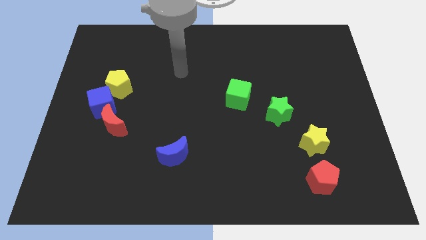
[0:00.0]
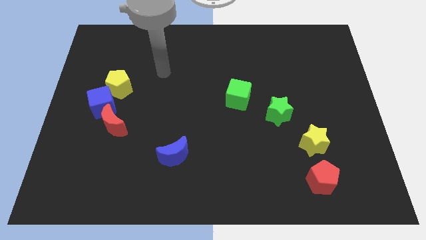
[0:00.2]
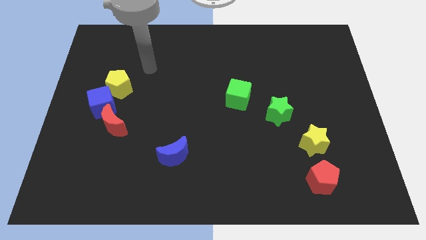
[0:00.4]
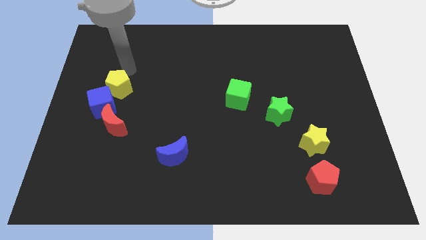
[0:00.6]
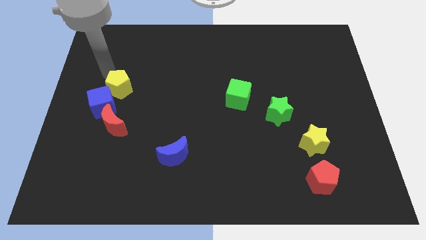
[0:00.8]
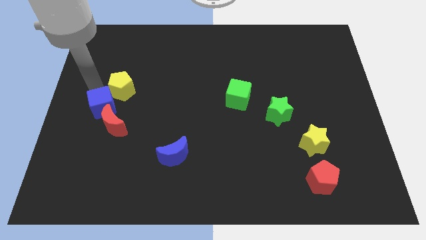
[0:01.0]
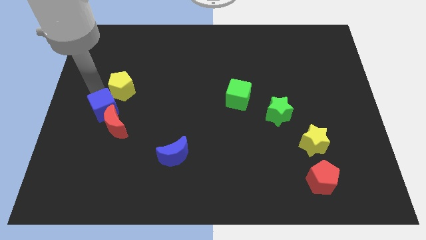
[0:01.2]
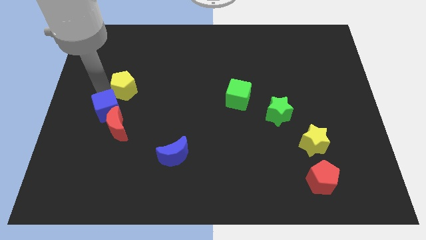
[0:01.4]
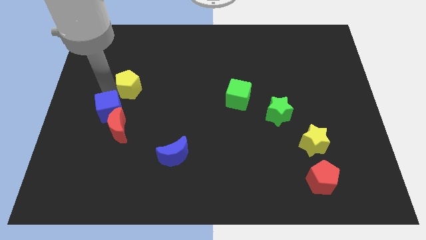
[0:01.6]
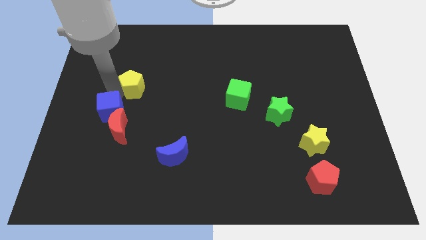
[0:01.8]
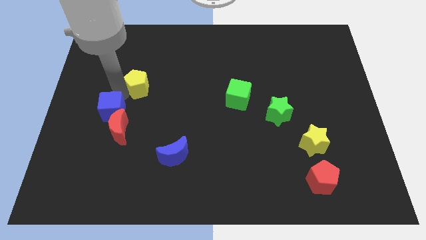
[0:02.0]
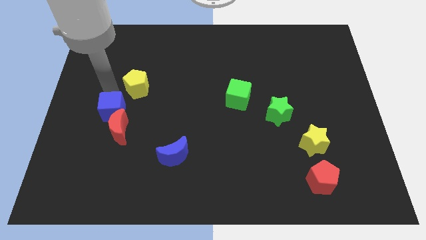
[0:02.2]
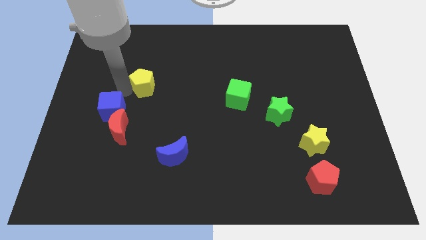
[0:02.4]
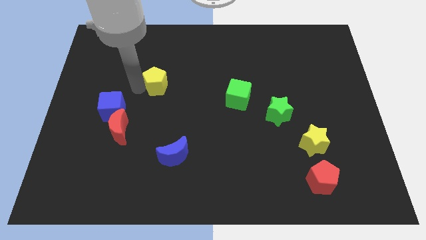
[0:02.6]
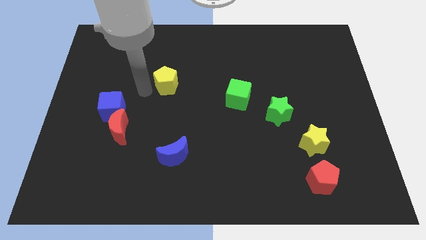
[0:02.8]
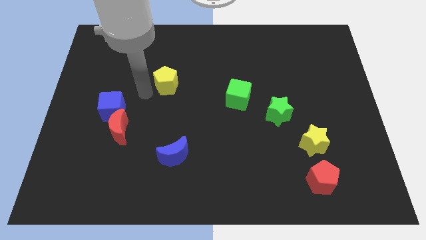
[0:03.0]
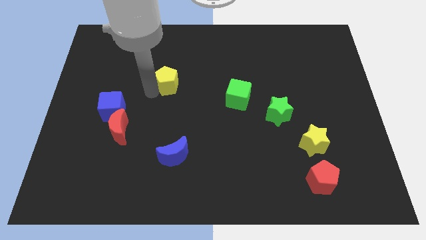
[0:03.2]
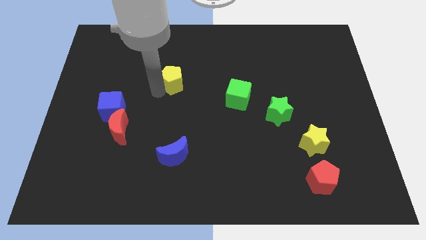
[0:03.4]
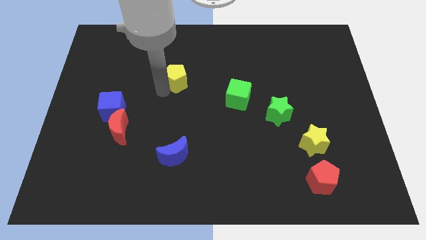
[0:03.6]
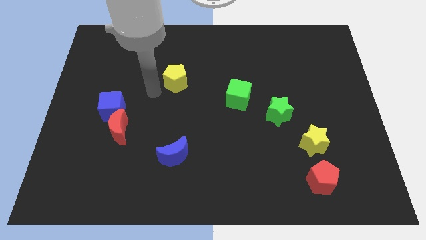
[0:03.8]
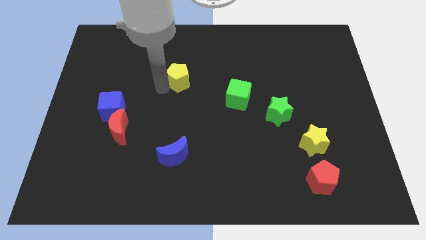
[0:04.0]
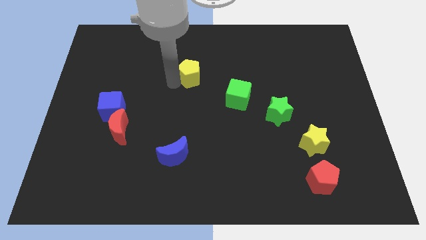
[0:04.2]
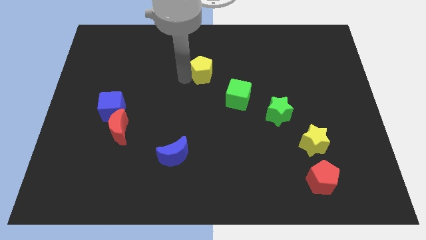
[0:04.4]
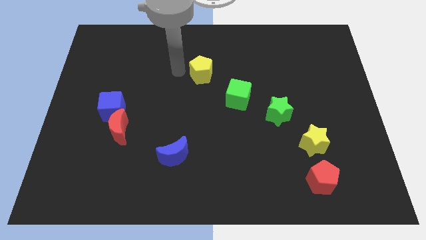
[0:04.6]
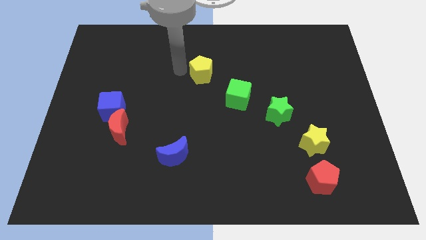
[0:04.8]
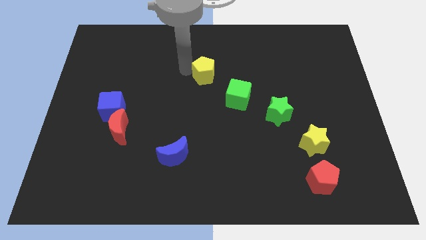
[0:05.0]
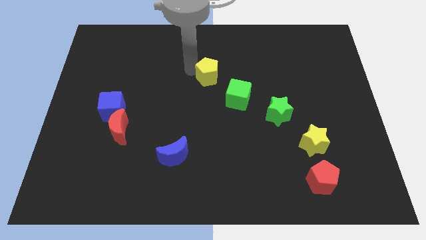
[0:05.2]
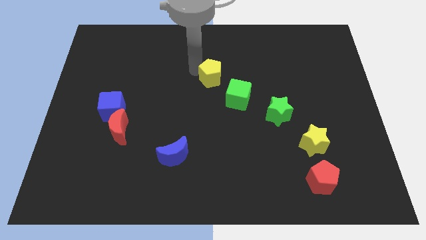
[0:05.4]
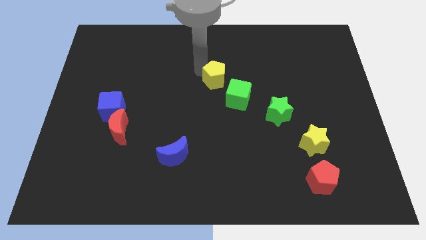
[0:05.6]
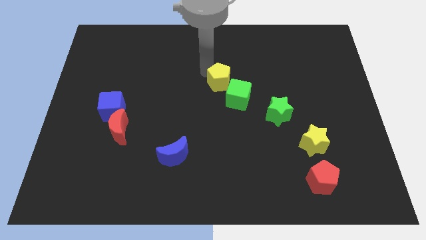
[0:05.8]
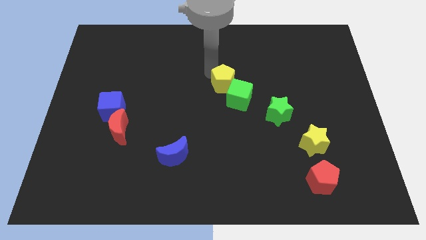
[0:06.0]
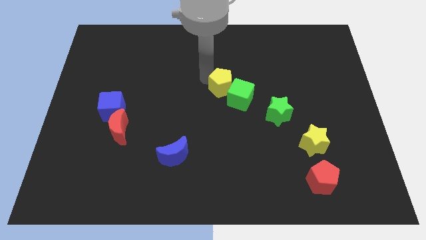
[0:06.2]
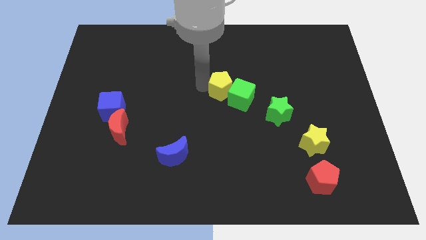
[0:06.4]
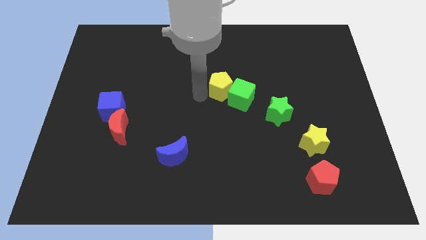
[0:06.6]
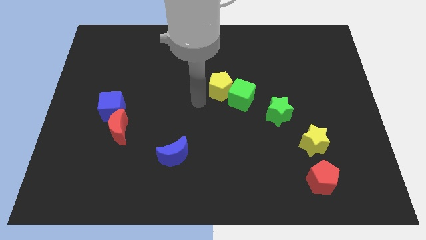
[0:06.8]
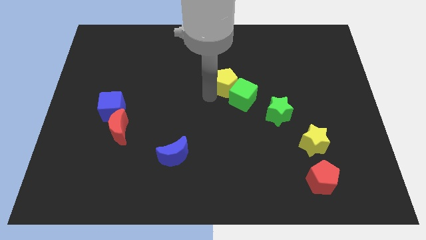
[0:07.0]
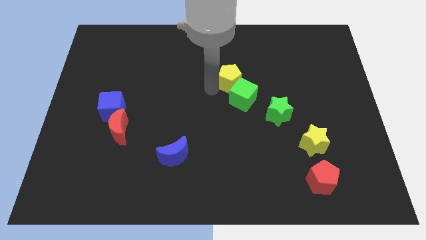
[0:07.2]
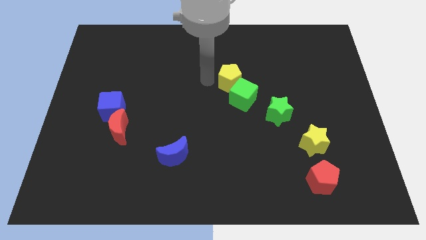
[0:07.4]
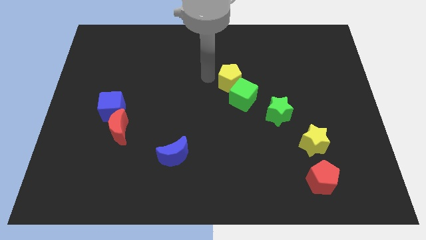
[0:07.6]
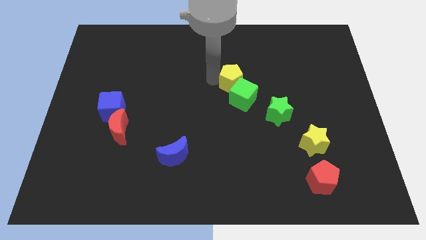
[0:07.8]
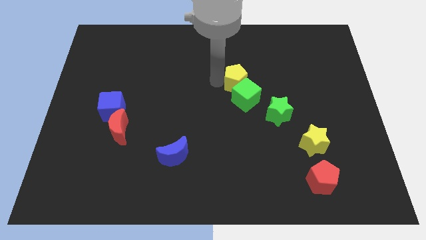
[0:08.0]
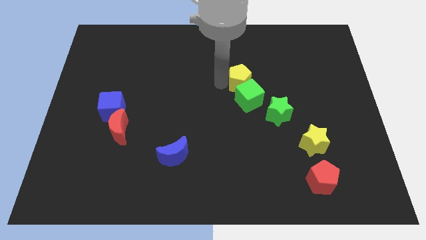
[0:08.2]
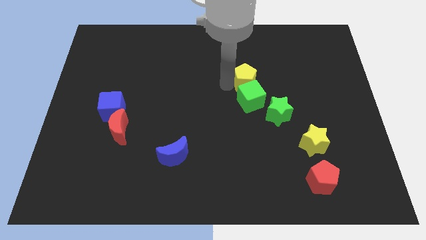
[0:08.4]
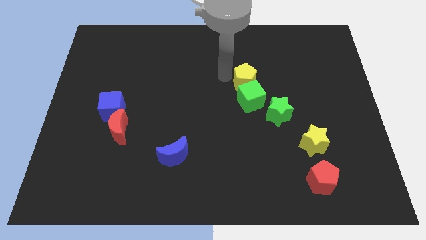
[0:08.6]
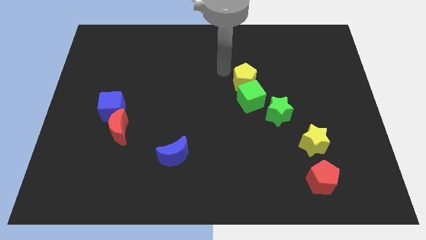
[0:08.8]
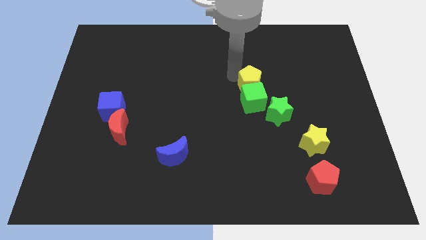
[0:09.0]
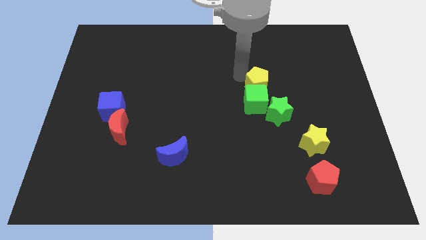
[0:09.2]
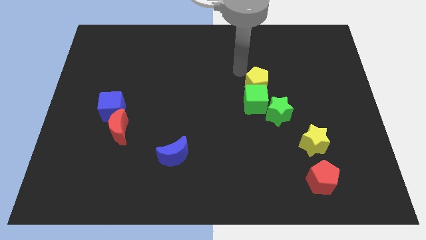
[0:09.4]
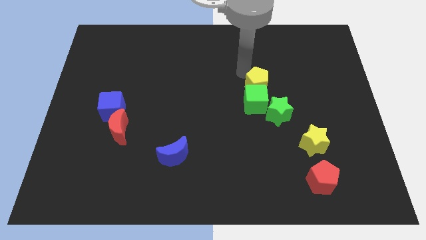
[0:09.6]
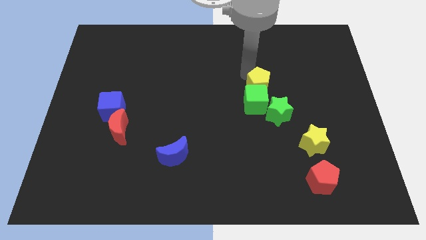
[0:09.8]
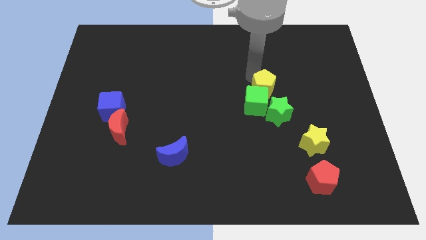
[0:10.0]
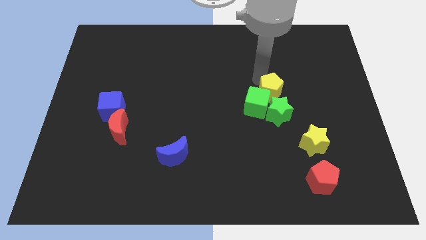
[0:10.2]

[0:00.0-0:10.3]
put the yellow pentagon to the right side of the green cube

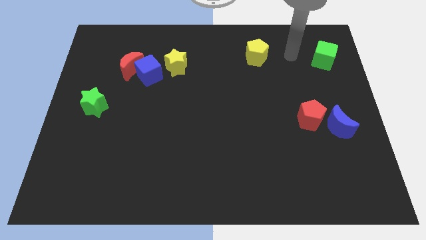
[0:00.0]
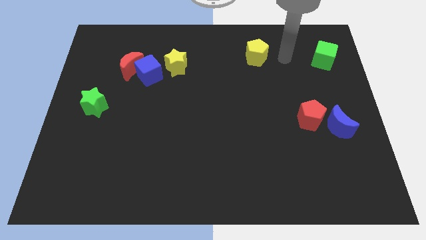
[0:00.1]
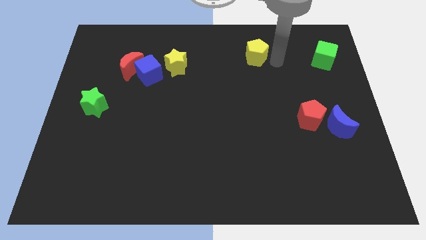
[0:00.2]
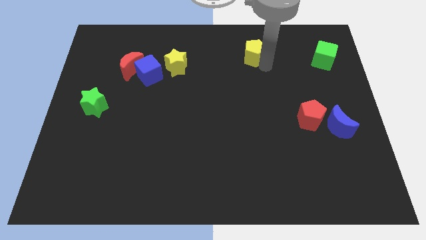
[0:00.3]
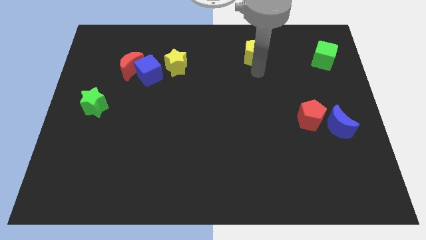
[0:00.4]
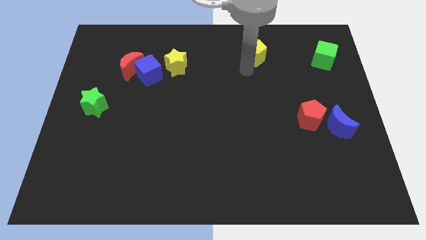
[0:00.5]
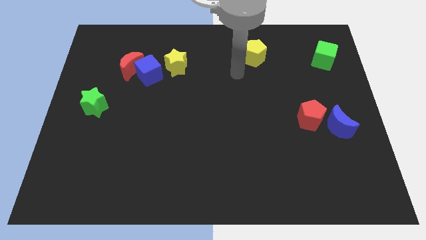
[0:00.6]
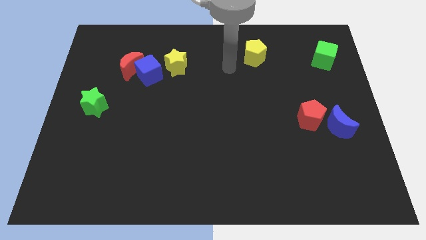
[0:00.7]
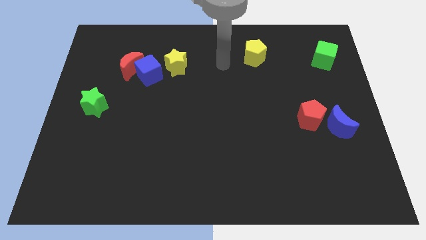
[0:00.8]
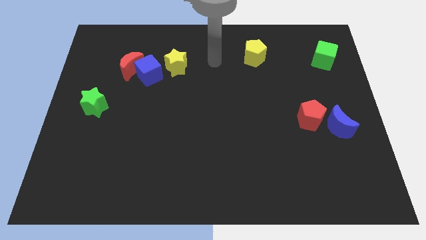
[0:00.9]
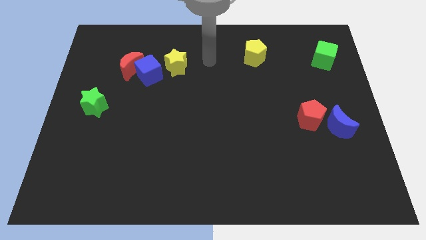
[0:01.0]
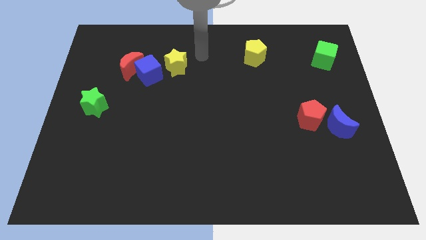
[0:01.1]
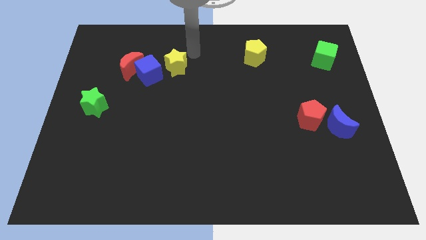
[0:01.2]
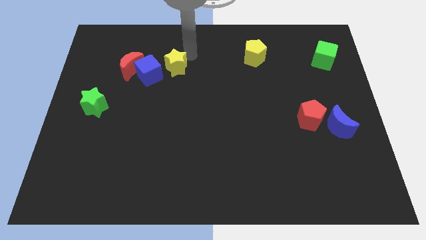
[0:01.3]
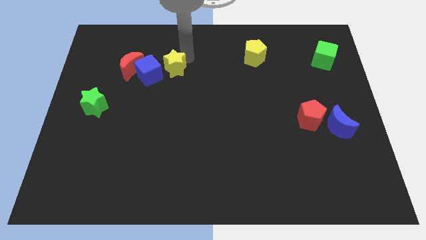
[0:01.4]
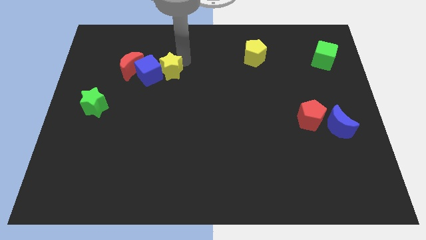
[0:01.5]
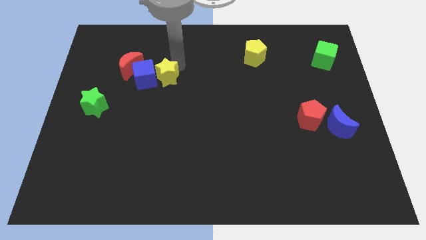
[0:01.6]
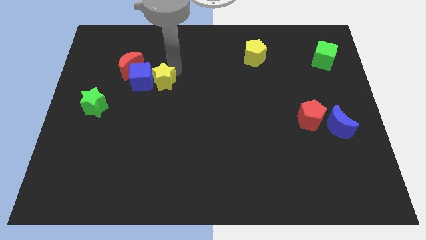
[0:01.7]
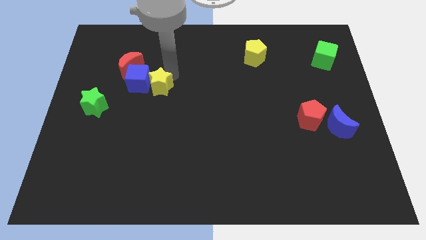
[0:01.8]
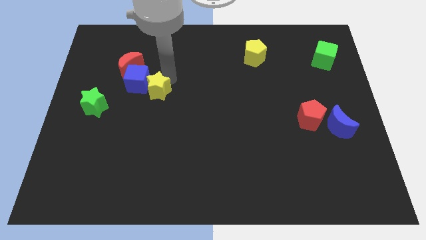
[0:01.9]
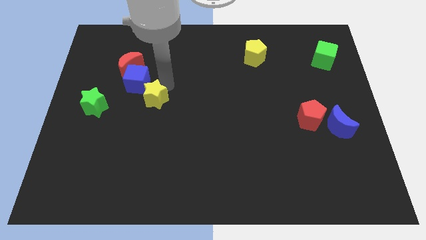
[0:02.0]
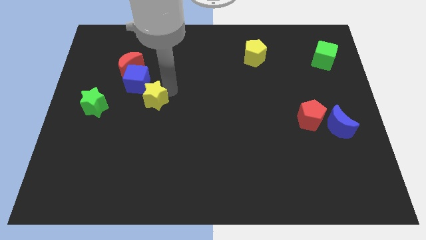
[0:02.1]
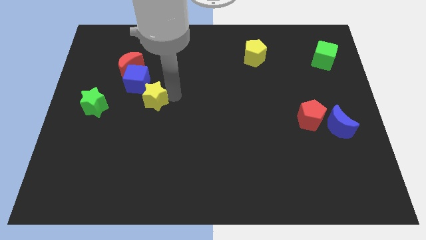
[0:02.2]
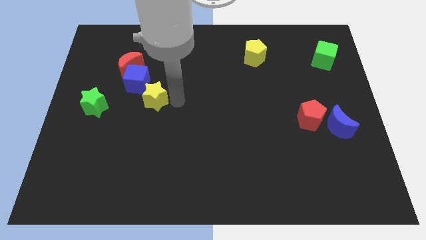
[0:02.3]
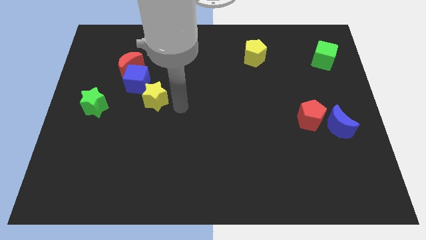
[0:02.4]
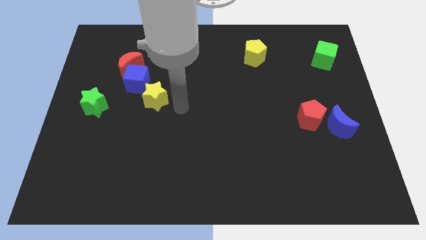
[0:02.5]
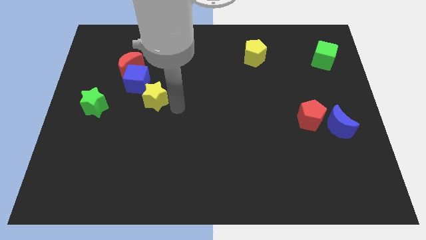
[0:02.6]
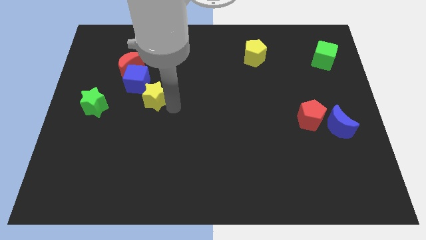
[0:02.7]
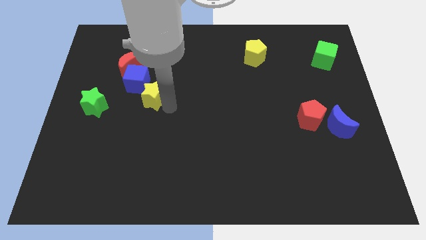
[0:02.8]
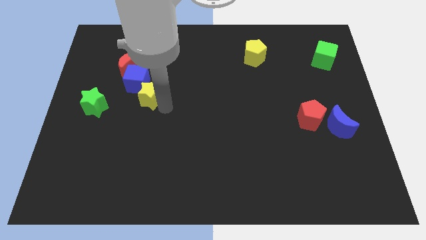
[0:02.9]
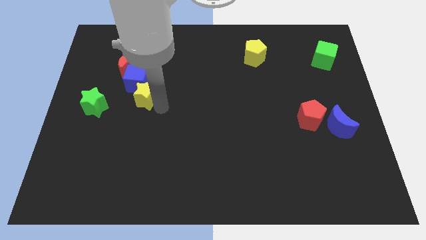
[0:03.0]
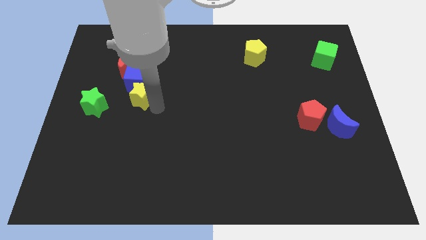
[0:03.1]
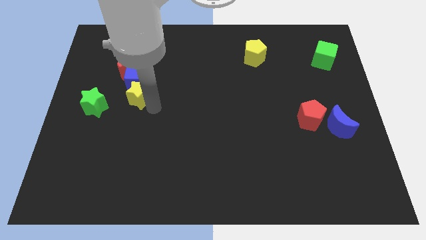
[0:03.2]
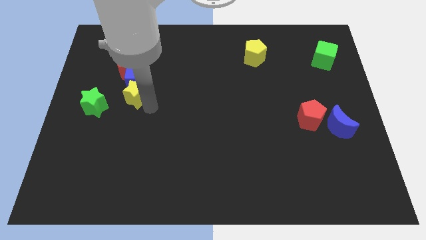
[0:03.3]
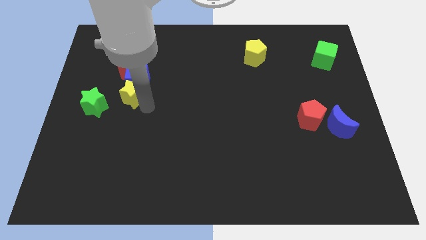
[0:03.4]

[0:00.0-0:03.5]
push the yellow star to the top right side of the green star
